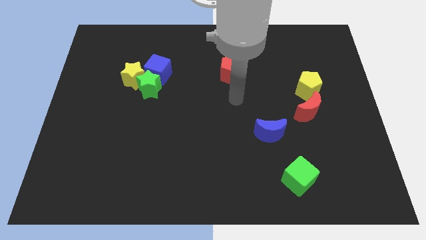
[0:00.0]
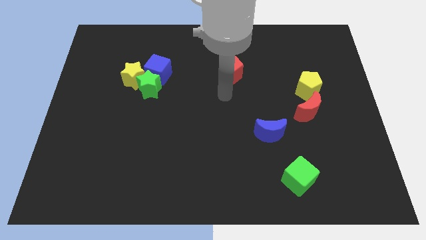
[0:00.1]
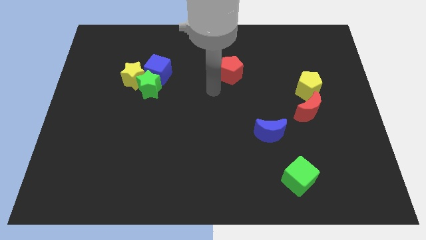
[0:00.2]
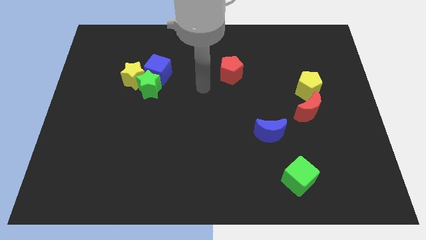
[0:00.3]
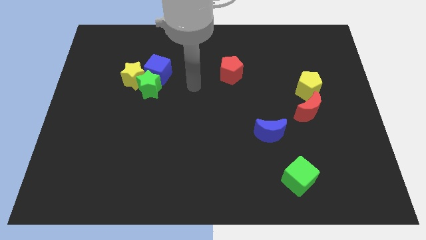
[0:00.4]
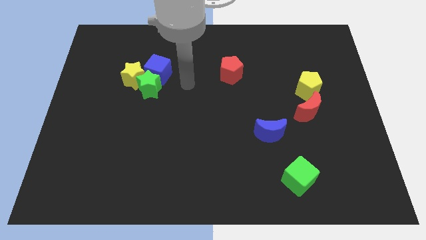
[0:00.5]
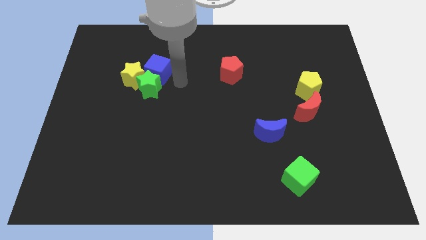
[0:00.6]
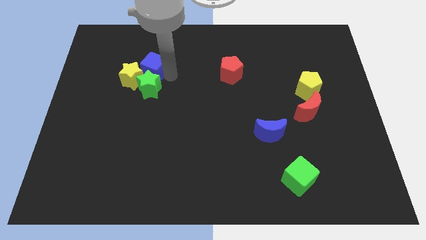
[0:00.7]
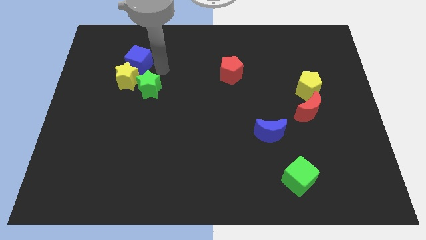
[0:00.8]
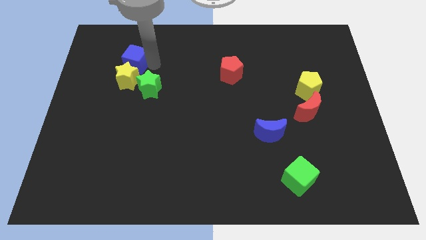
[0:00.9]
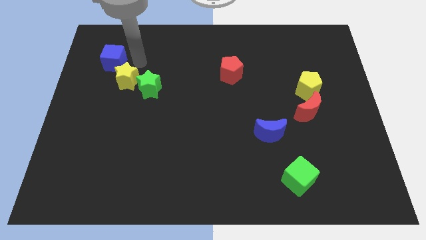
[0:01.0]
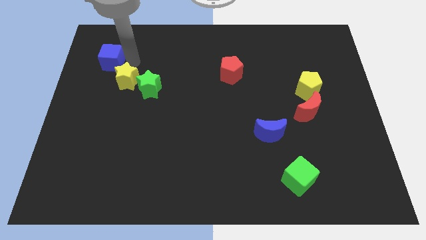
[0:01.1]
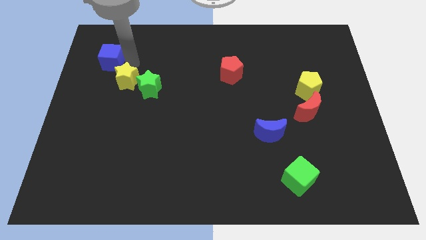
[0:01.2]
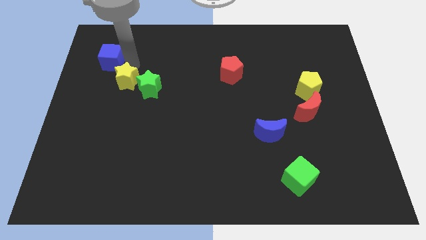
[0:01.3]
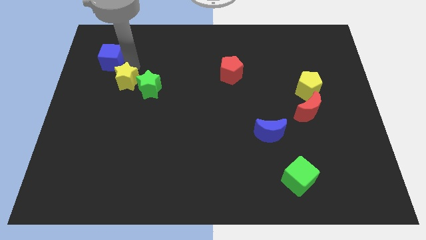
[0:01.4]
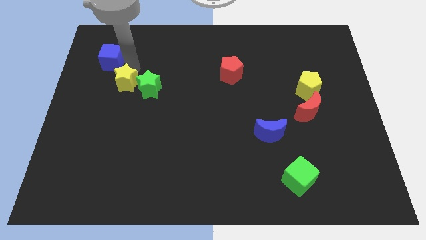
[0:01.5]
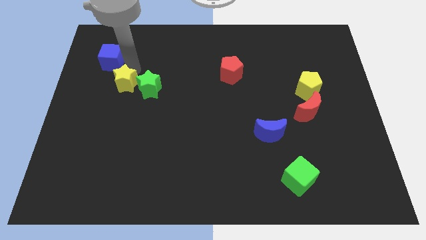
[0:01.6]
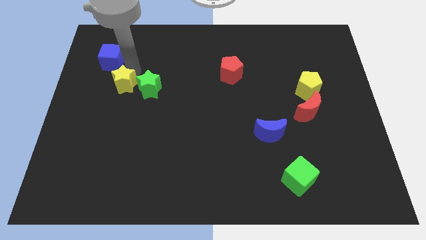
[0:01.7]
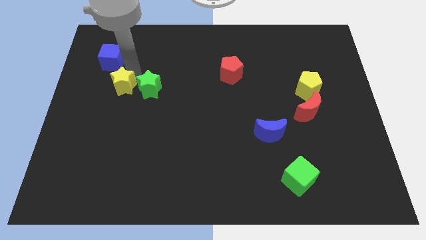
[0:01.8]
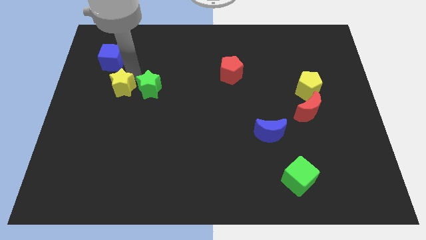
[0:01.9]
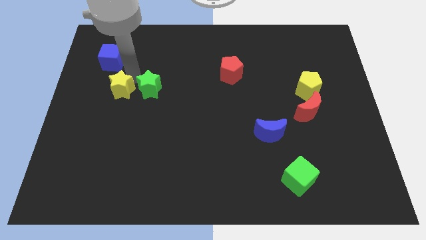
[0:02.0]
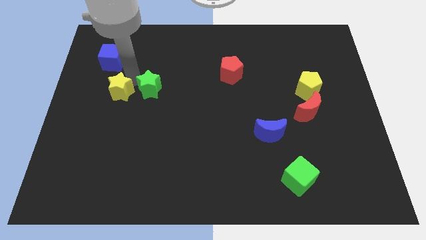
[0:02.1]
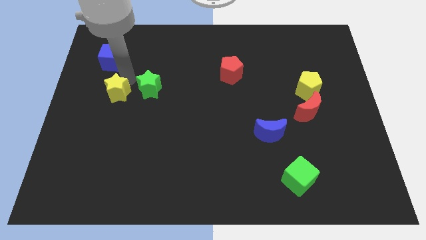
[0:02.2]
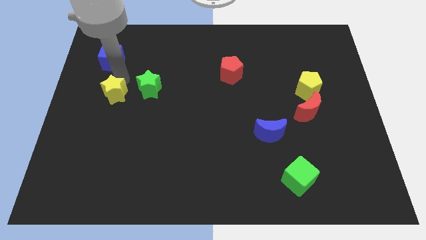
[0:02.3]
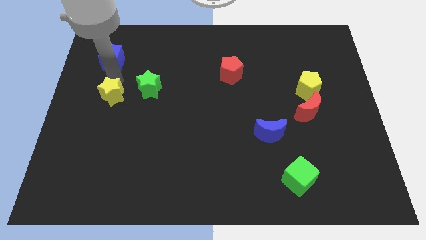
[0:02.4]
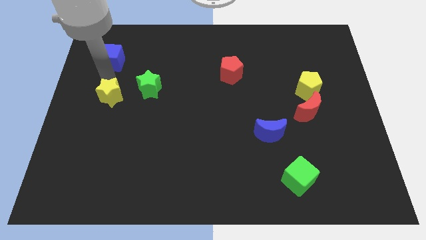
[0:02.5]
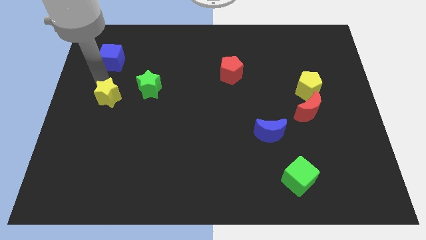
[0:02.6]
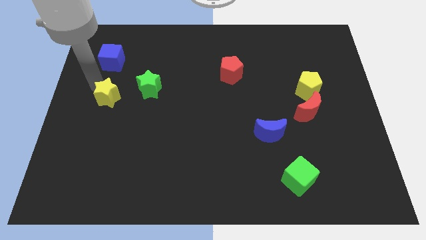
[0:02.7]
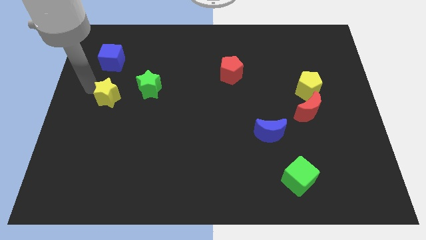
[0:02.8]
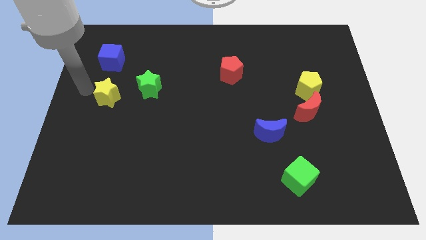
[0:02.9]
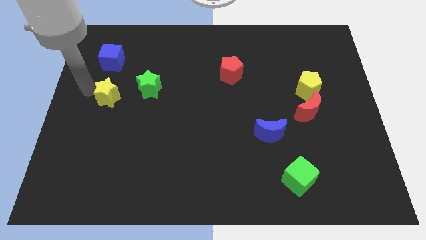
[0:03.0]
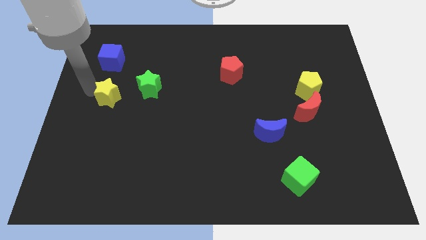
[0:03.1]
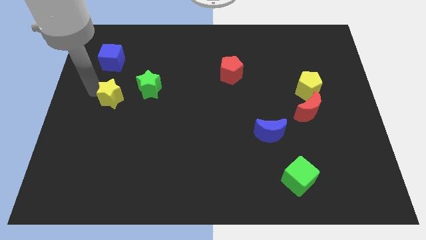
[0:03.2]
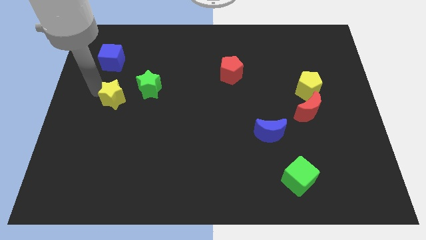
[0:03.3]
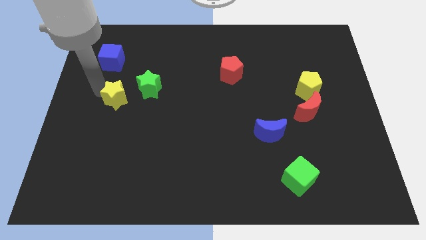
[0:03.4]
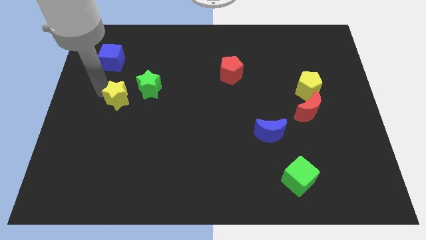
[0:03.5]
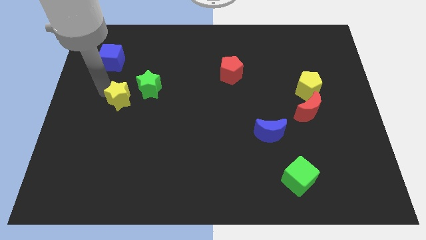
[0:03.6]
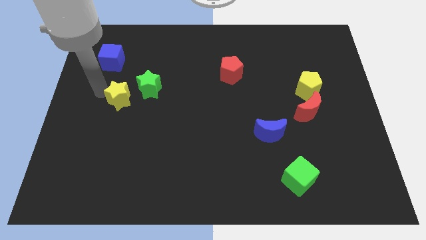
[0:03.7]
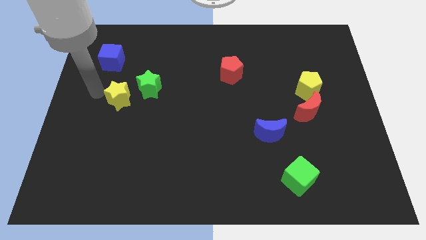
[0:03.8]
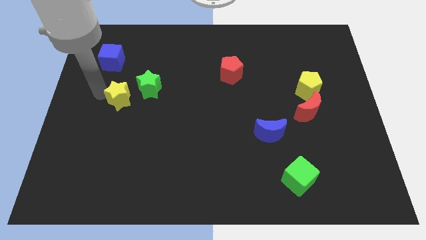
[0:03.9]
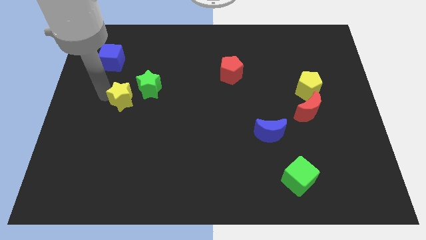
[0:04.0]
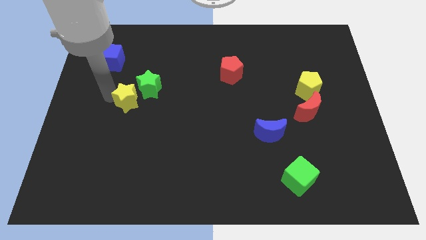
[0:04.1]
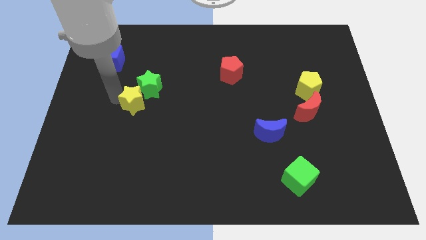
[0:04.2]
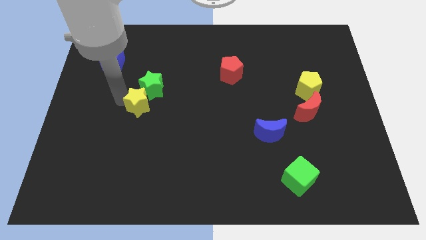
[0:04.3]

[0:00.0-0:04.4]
slightly push the yellow star downwards and to the right diagonally

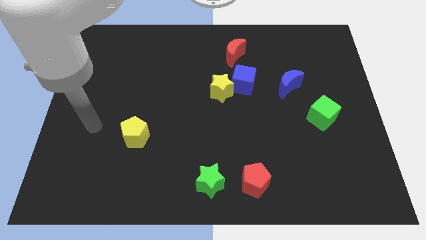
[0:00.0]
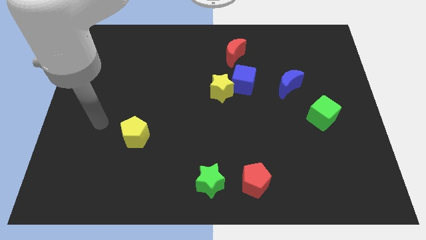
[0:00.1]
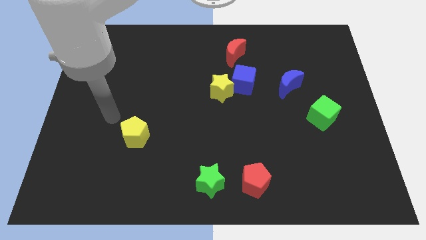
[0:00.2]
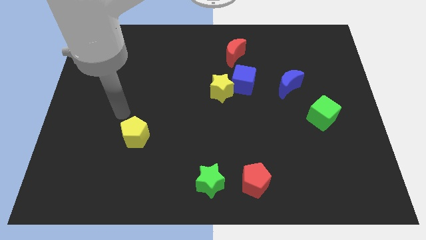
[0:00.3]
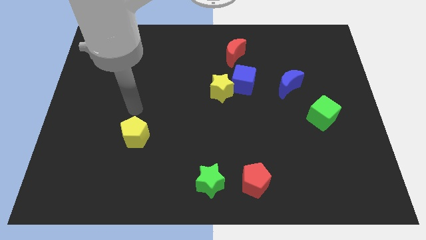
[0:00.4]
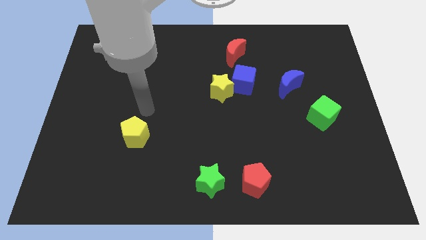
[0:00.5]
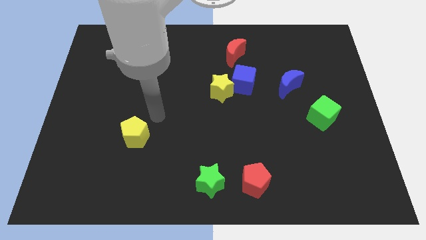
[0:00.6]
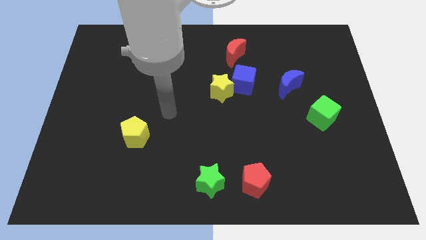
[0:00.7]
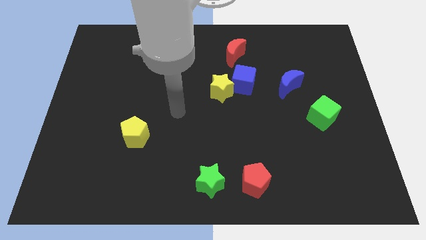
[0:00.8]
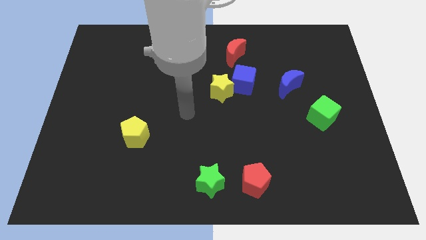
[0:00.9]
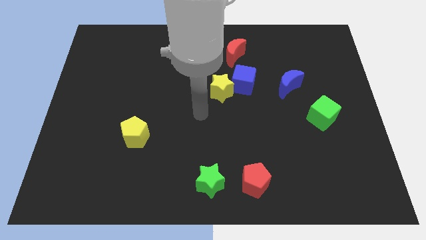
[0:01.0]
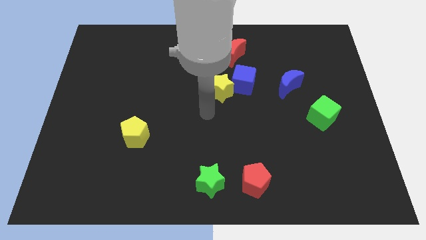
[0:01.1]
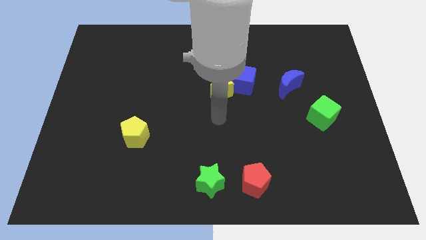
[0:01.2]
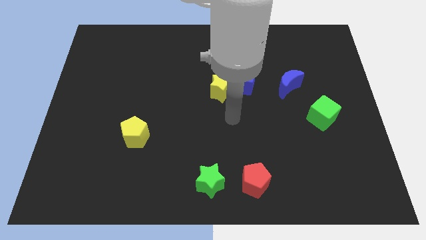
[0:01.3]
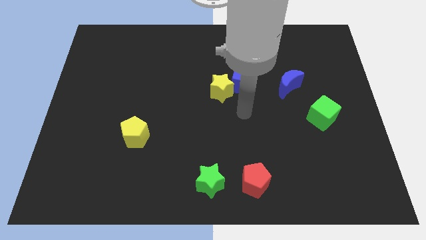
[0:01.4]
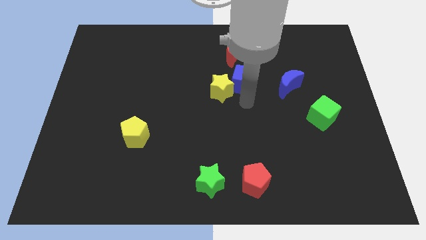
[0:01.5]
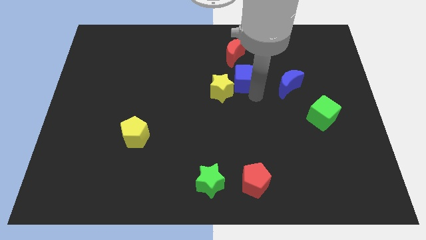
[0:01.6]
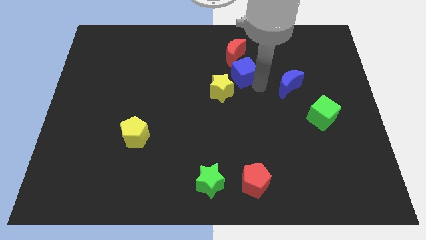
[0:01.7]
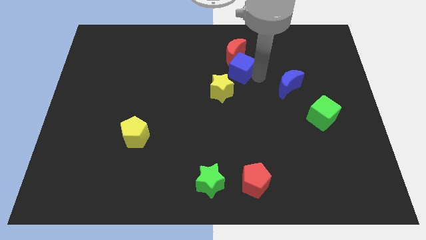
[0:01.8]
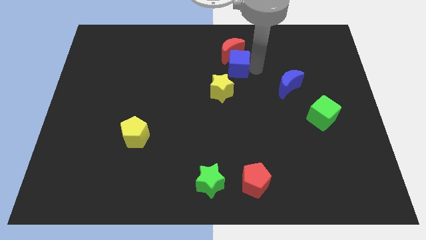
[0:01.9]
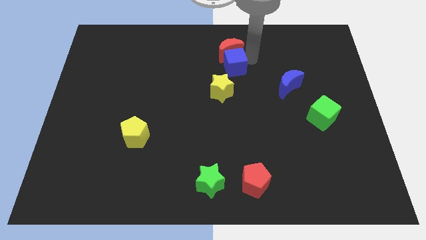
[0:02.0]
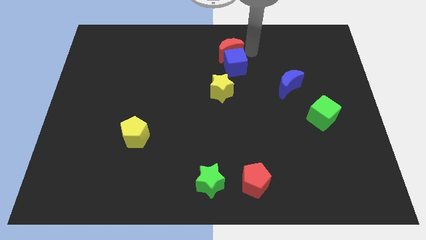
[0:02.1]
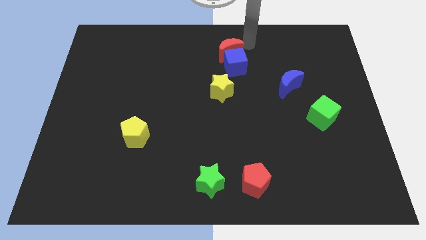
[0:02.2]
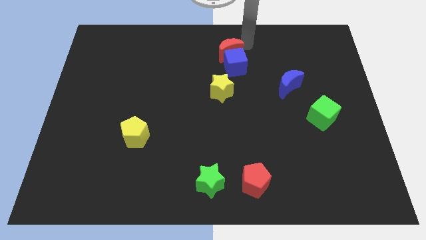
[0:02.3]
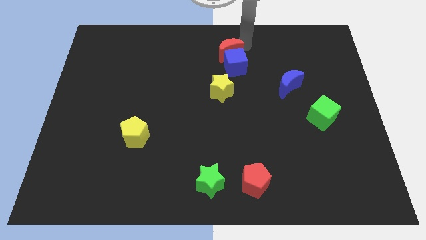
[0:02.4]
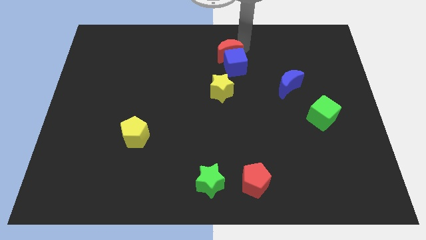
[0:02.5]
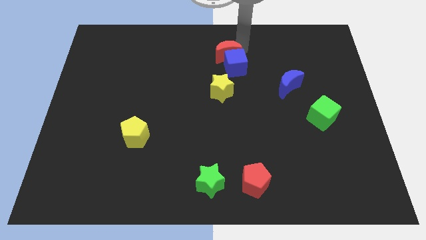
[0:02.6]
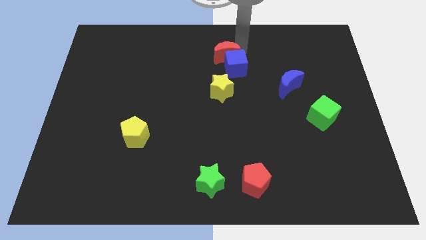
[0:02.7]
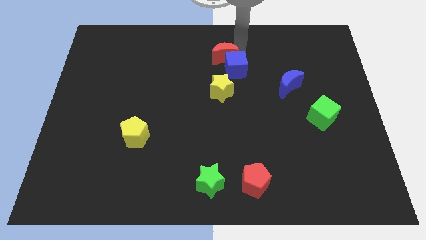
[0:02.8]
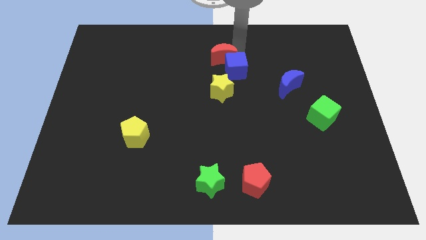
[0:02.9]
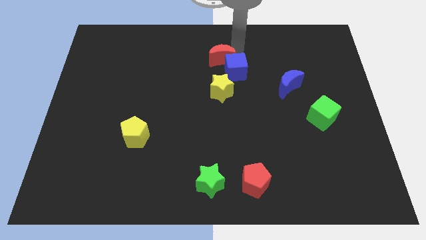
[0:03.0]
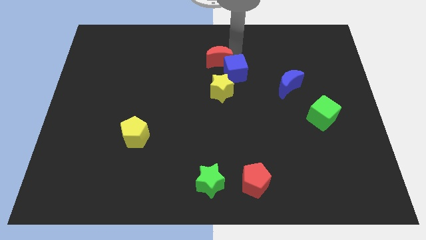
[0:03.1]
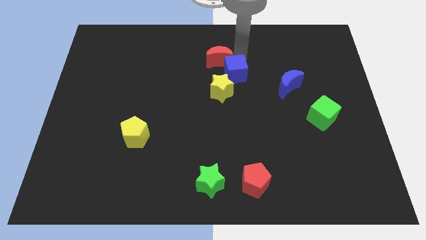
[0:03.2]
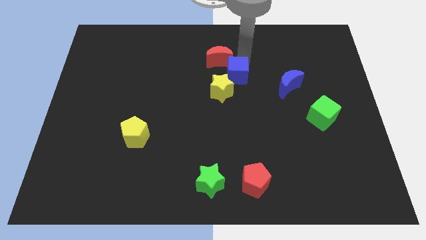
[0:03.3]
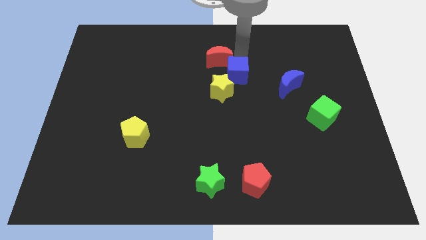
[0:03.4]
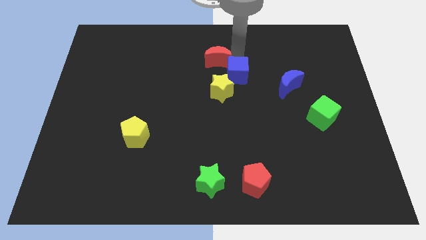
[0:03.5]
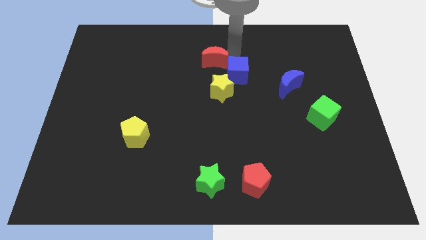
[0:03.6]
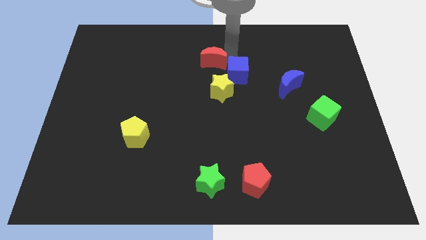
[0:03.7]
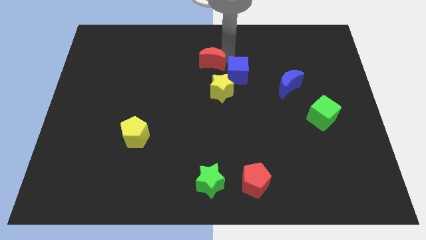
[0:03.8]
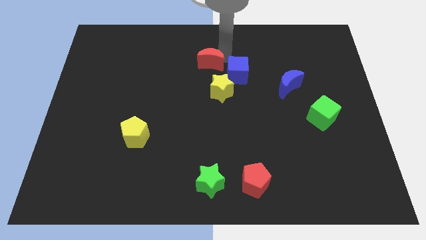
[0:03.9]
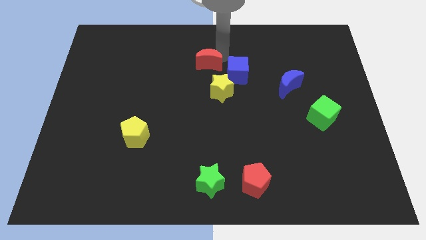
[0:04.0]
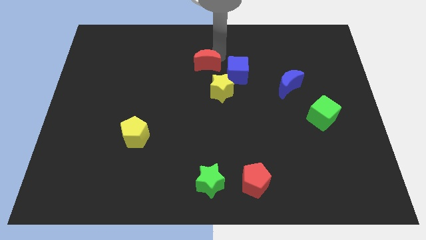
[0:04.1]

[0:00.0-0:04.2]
slightly move the red moon left
